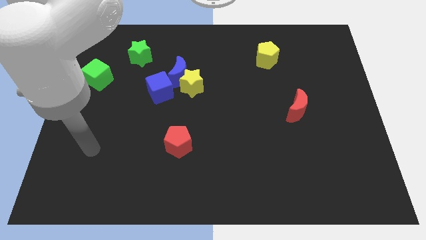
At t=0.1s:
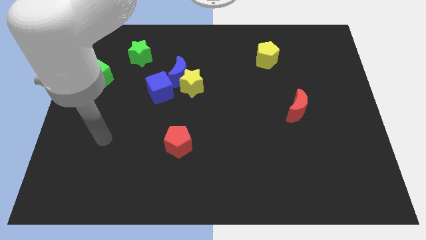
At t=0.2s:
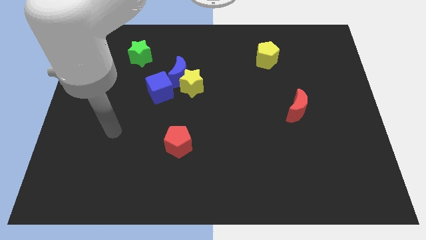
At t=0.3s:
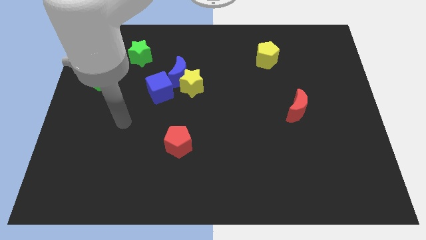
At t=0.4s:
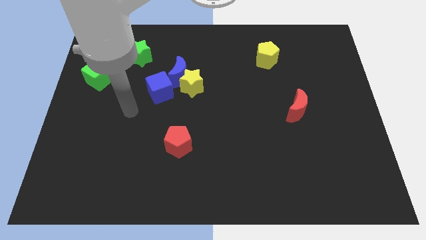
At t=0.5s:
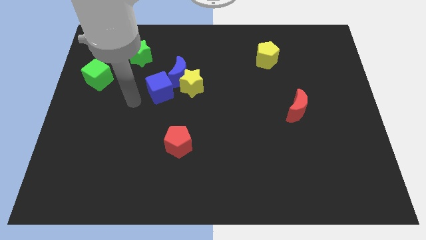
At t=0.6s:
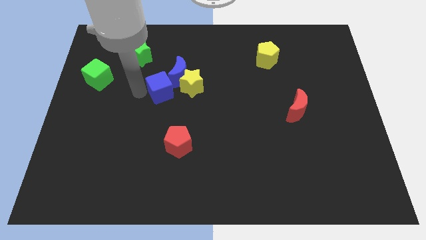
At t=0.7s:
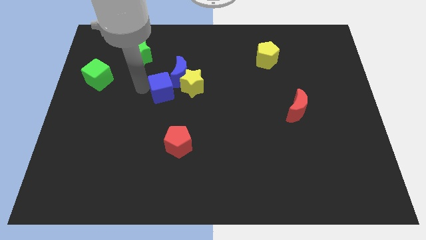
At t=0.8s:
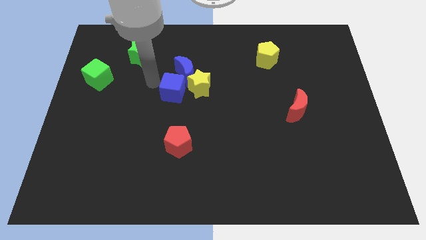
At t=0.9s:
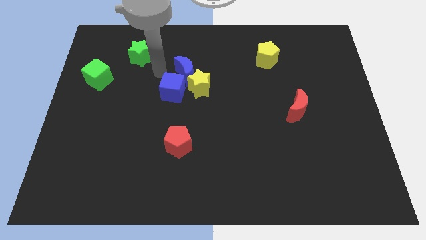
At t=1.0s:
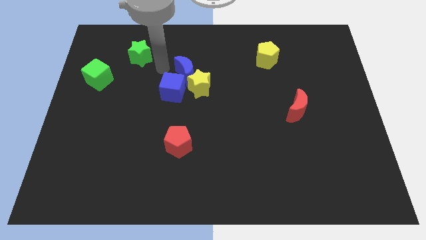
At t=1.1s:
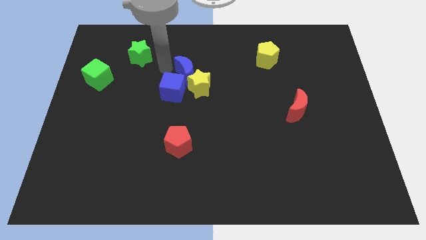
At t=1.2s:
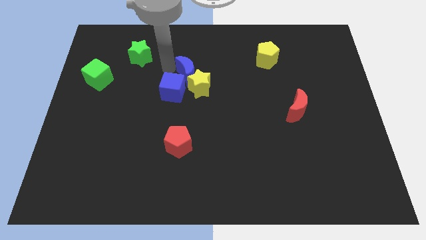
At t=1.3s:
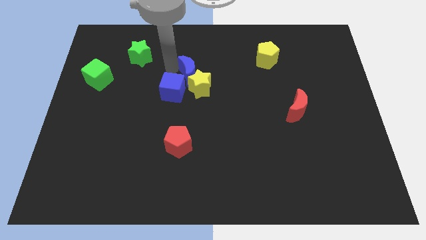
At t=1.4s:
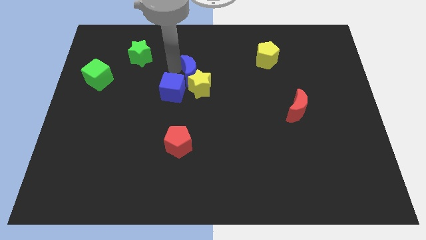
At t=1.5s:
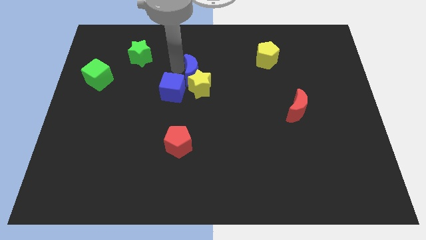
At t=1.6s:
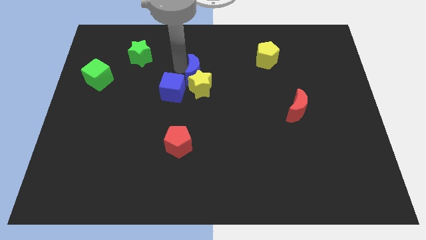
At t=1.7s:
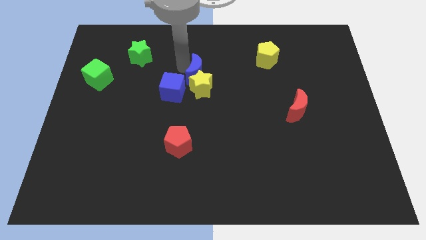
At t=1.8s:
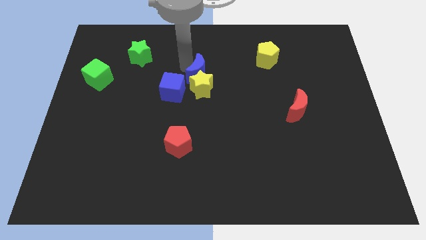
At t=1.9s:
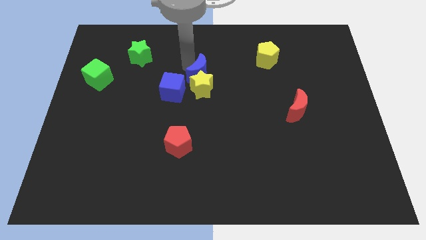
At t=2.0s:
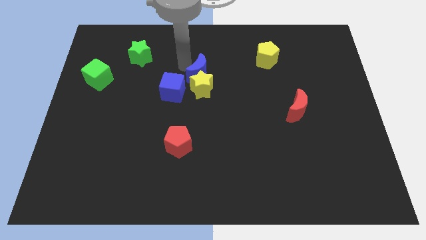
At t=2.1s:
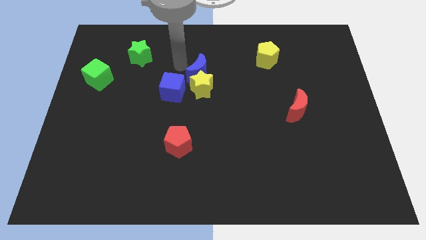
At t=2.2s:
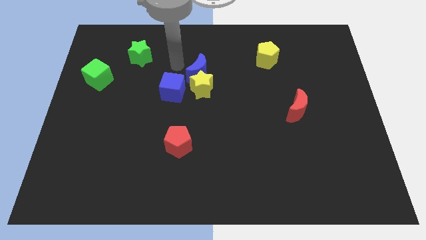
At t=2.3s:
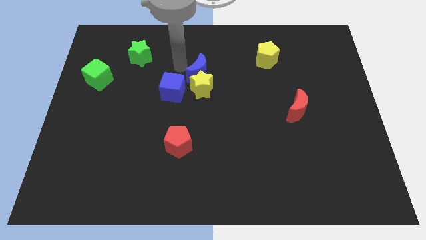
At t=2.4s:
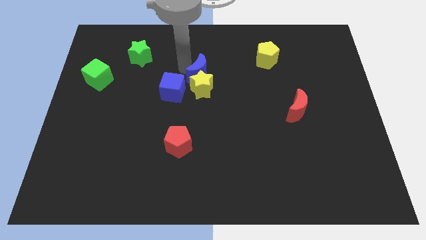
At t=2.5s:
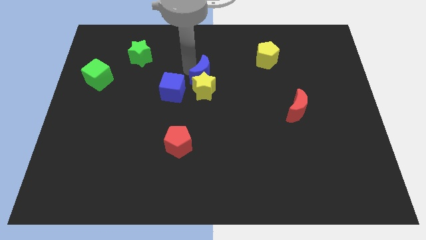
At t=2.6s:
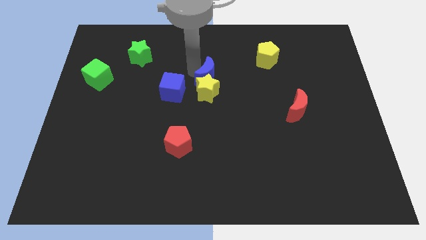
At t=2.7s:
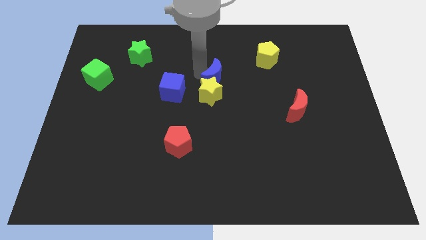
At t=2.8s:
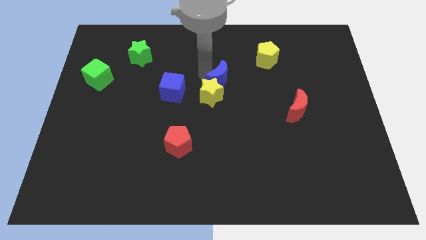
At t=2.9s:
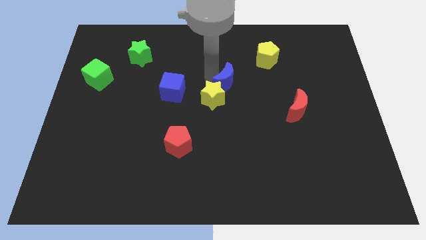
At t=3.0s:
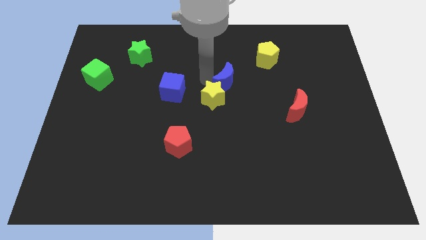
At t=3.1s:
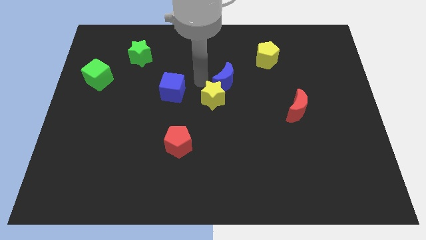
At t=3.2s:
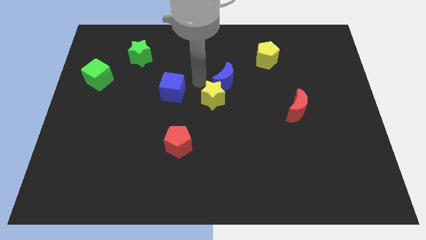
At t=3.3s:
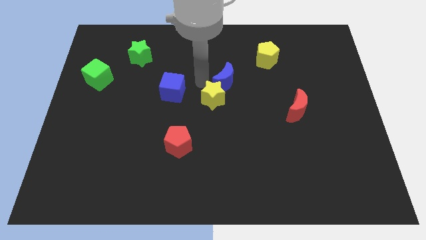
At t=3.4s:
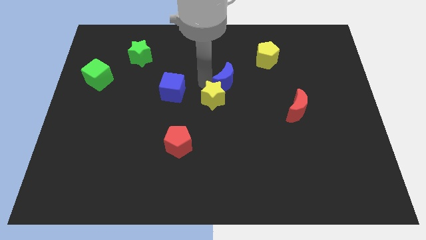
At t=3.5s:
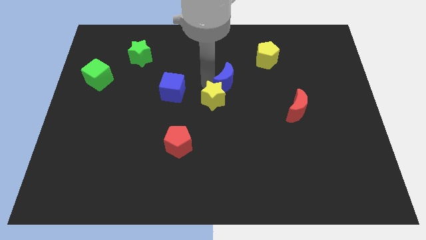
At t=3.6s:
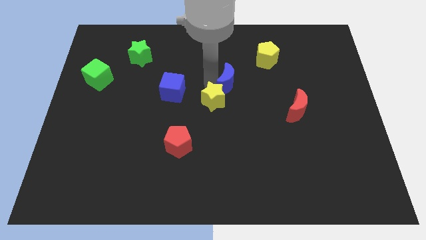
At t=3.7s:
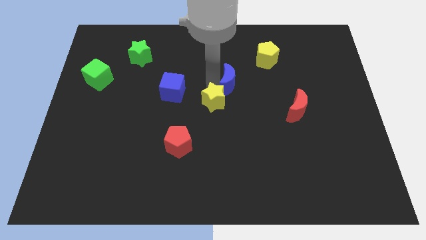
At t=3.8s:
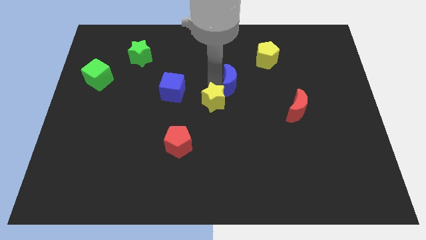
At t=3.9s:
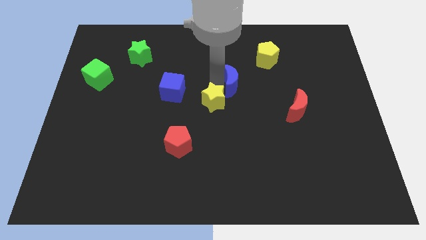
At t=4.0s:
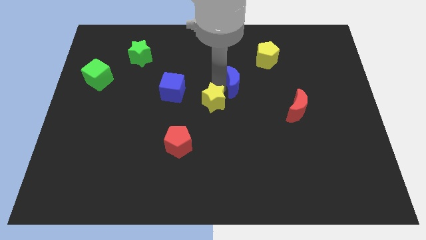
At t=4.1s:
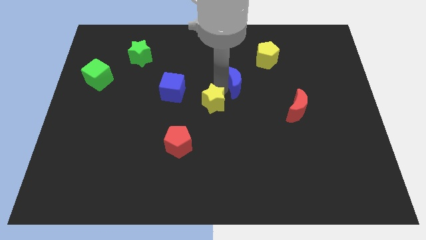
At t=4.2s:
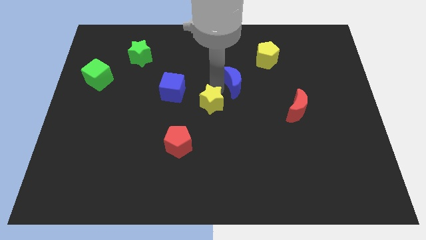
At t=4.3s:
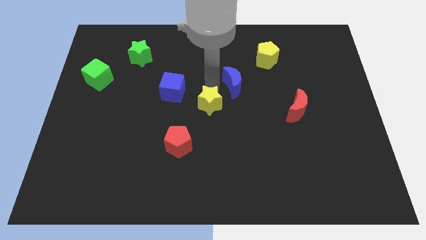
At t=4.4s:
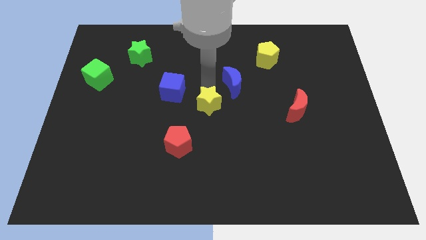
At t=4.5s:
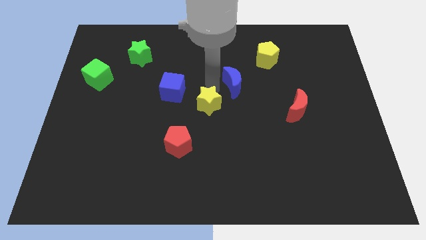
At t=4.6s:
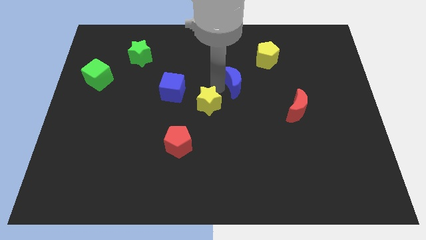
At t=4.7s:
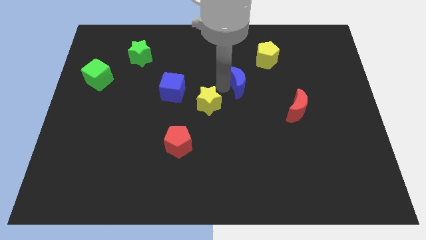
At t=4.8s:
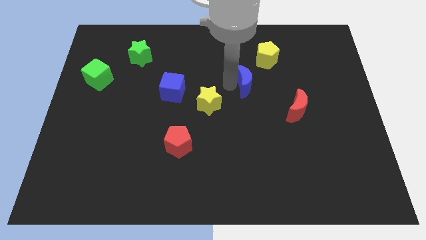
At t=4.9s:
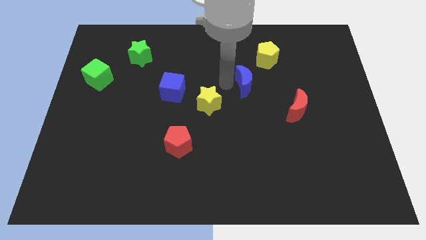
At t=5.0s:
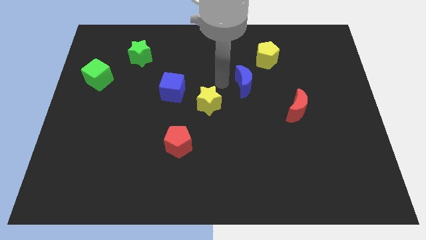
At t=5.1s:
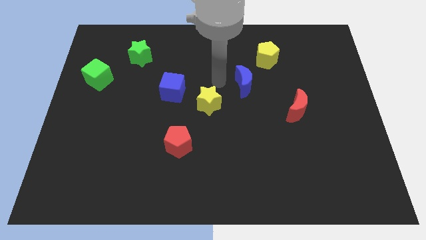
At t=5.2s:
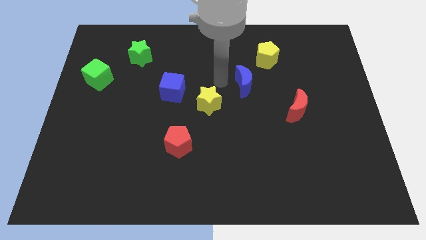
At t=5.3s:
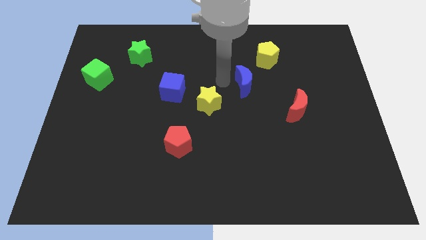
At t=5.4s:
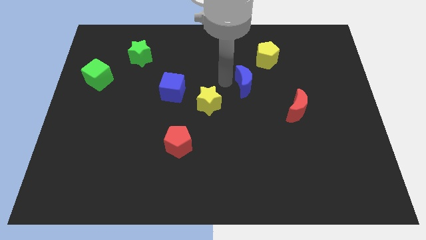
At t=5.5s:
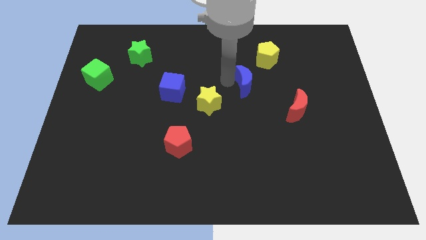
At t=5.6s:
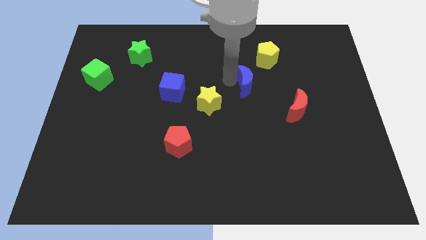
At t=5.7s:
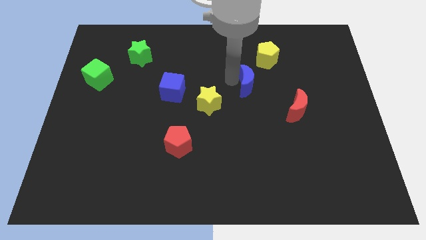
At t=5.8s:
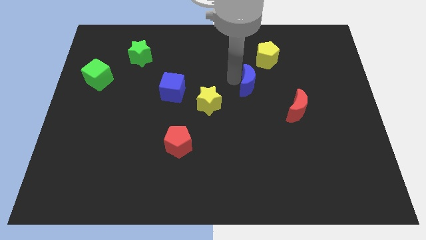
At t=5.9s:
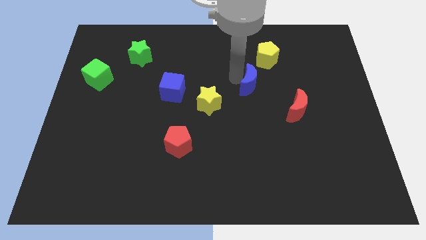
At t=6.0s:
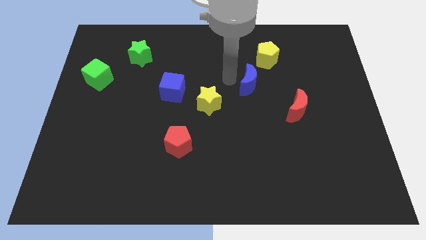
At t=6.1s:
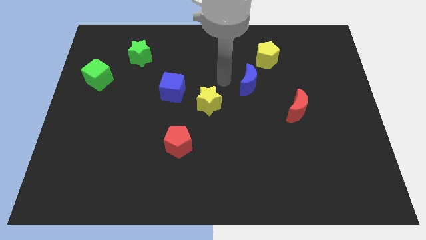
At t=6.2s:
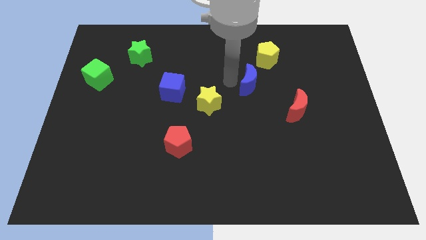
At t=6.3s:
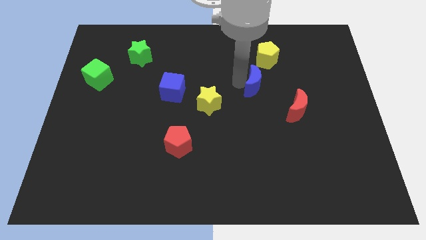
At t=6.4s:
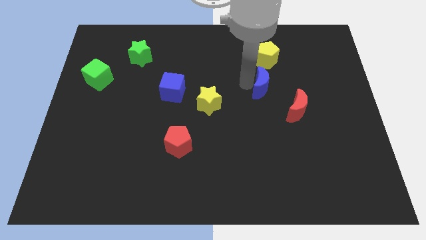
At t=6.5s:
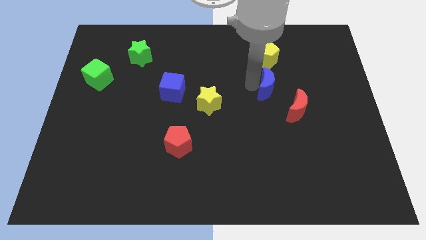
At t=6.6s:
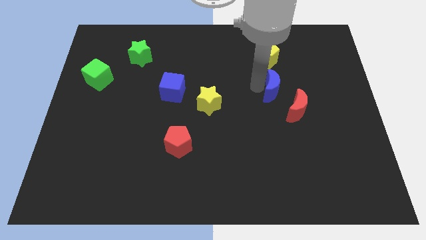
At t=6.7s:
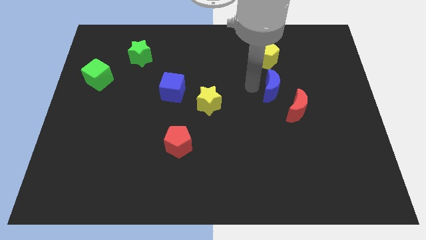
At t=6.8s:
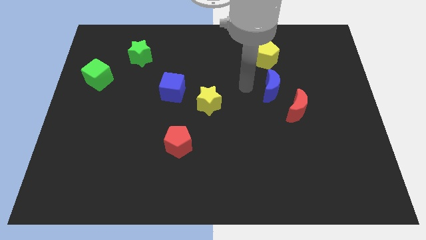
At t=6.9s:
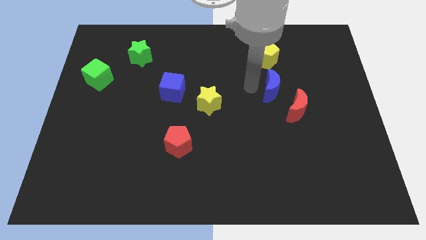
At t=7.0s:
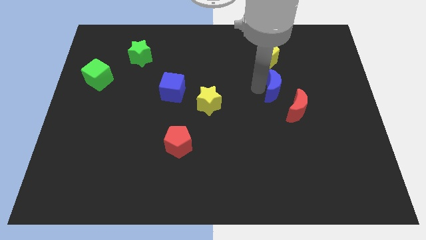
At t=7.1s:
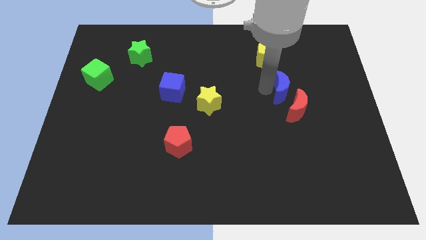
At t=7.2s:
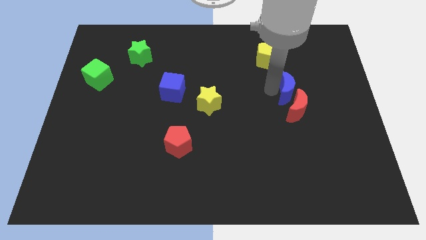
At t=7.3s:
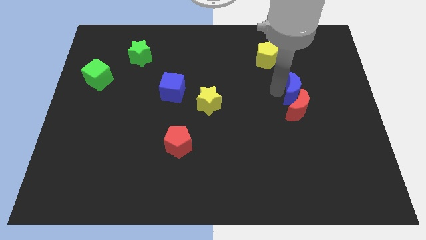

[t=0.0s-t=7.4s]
put the blue moon diagonally up and to the right of the red moon

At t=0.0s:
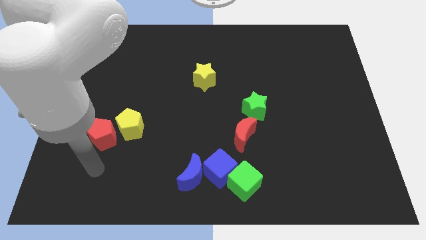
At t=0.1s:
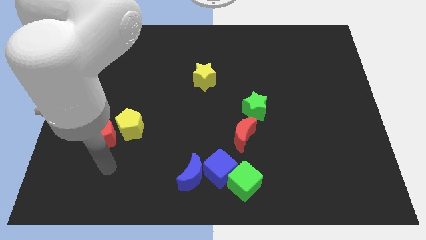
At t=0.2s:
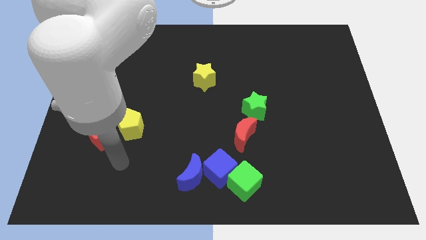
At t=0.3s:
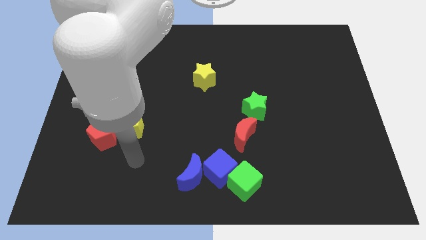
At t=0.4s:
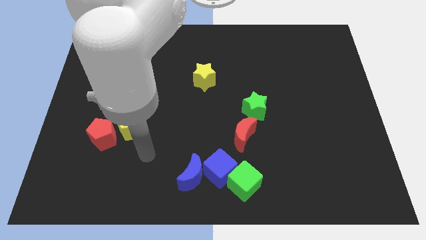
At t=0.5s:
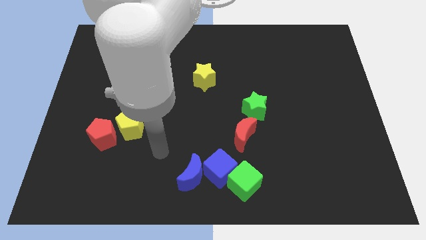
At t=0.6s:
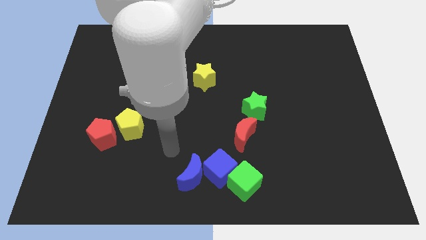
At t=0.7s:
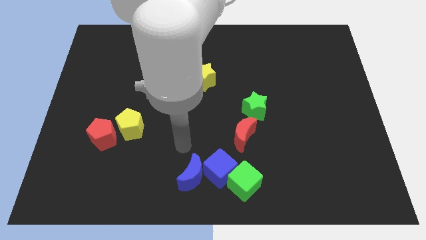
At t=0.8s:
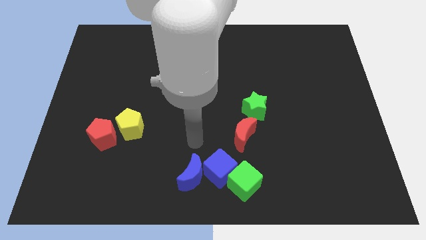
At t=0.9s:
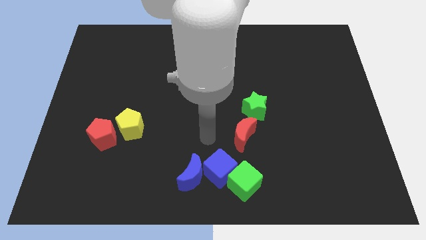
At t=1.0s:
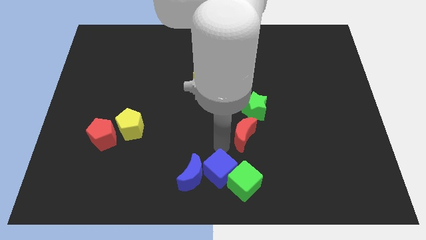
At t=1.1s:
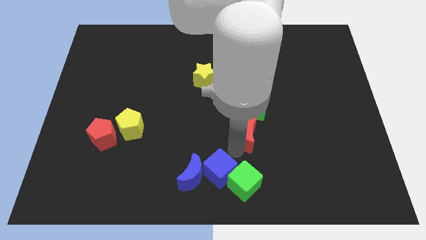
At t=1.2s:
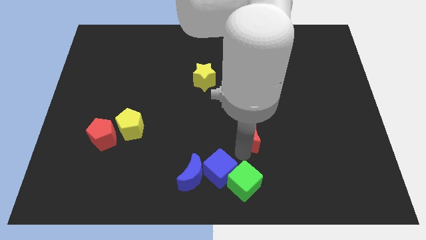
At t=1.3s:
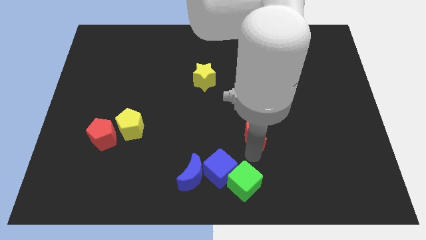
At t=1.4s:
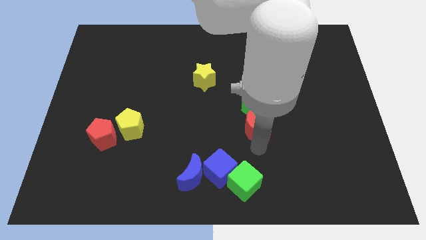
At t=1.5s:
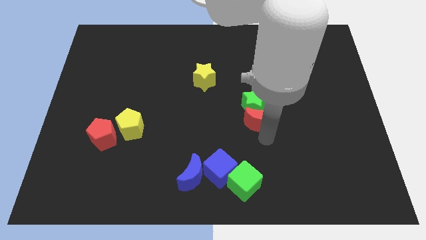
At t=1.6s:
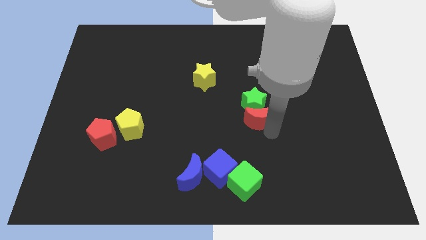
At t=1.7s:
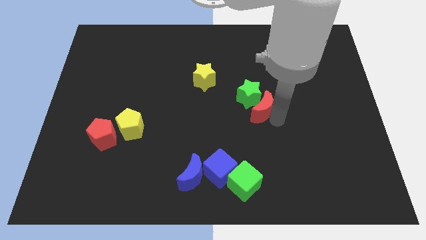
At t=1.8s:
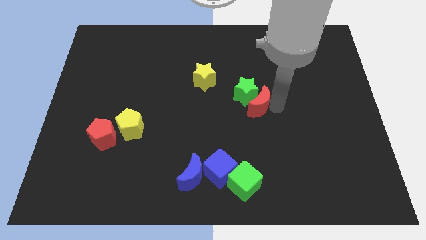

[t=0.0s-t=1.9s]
push the green star to the bottom right side of the yellow star
